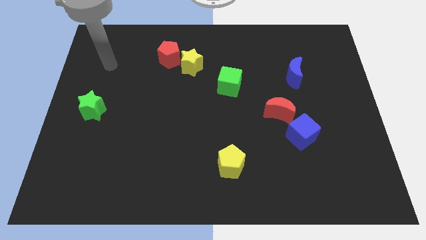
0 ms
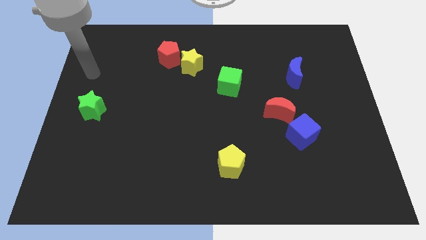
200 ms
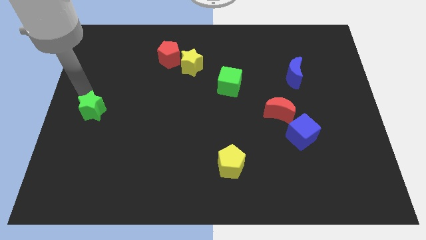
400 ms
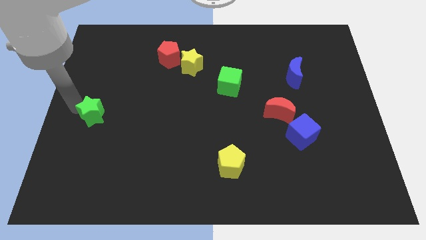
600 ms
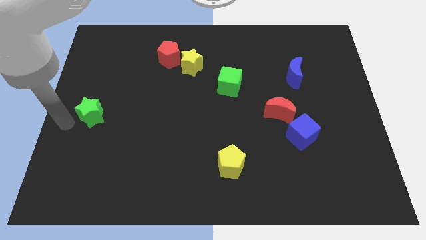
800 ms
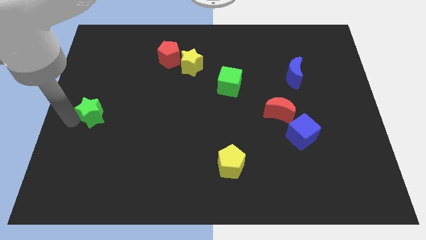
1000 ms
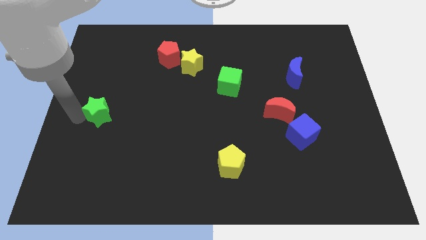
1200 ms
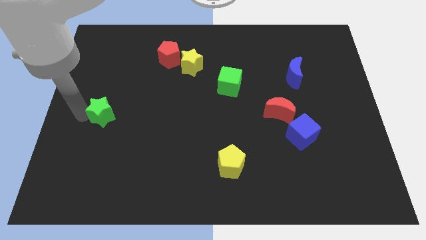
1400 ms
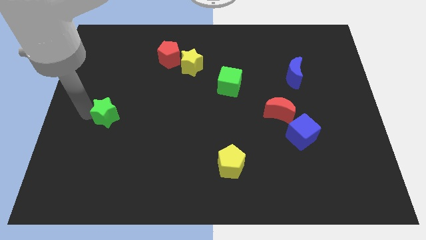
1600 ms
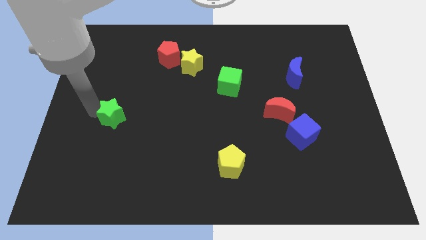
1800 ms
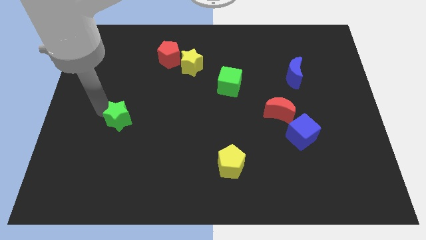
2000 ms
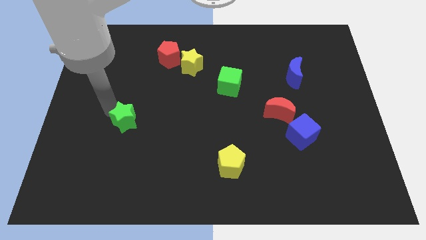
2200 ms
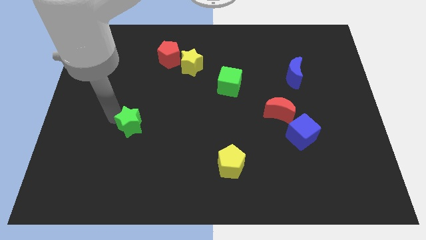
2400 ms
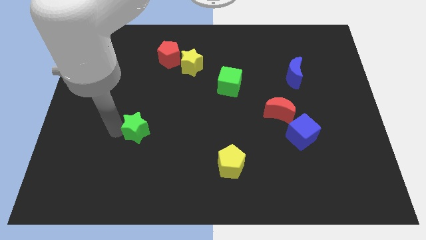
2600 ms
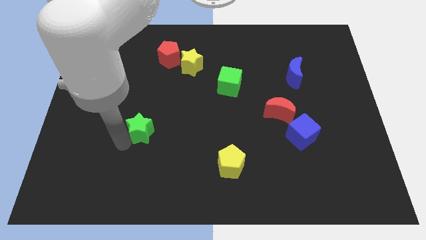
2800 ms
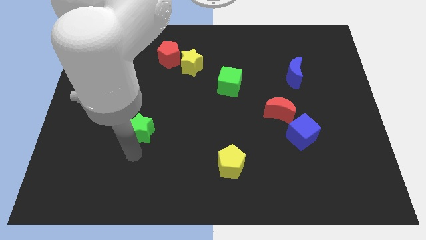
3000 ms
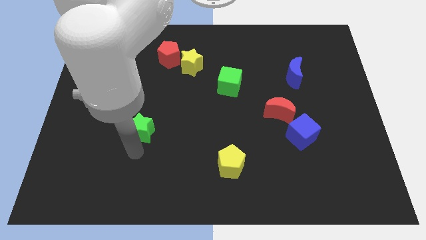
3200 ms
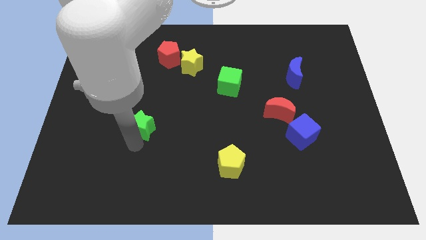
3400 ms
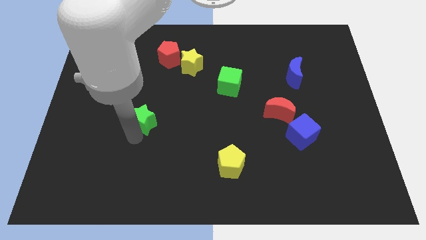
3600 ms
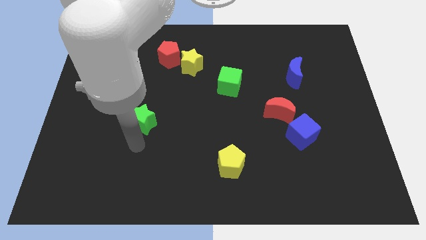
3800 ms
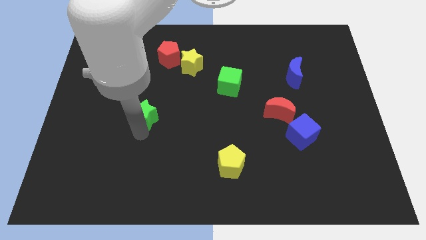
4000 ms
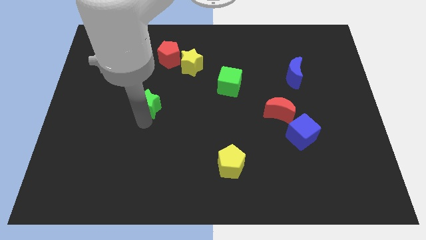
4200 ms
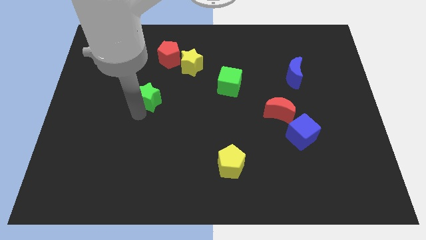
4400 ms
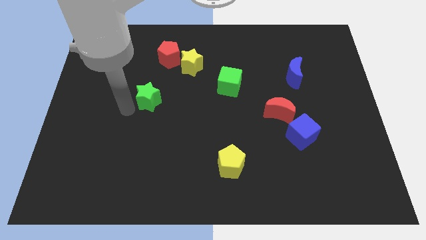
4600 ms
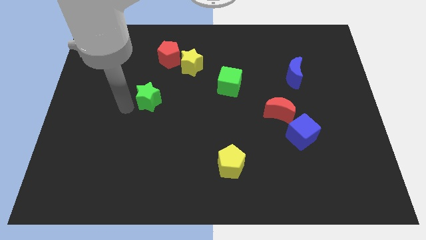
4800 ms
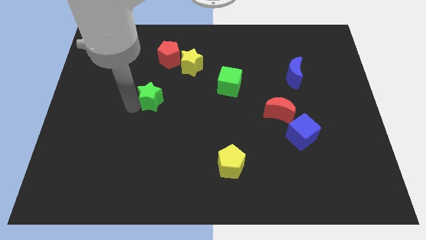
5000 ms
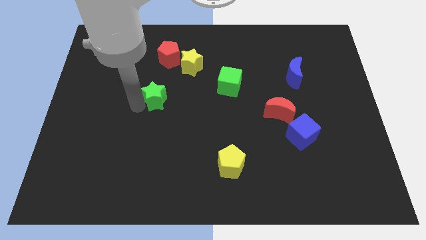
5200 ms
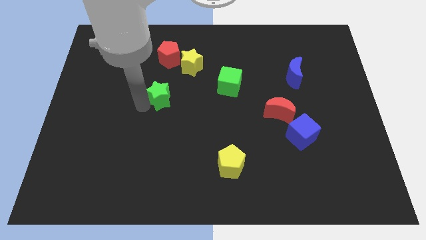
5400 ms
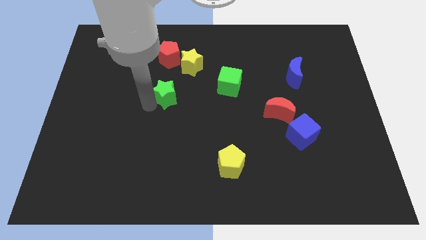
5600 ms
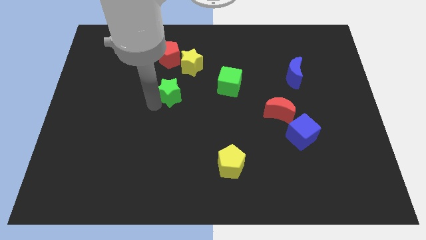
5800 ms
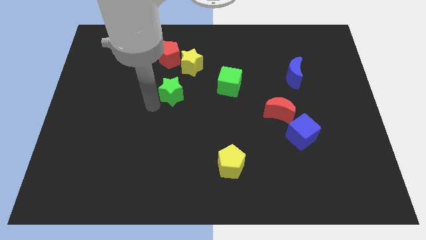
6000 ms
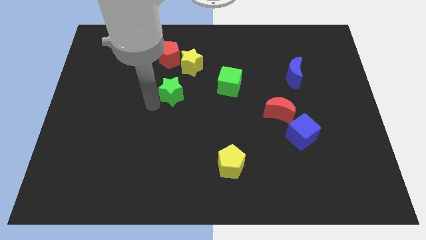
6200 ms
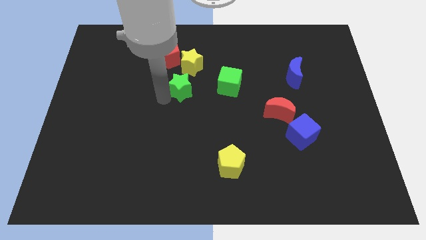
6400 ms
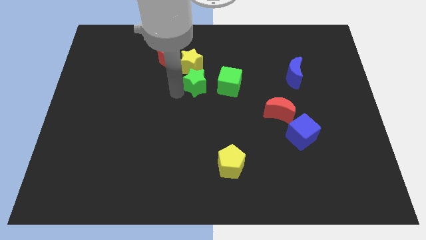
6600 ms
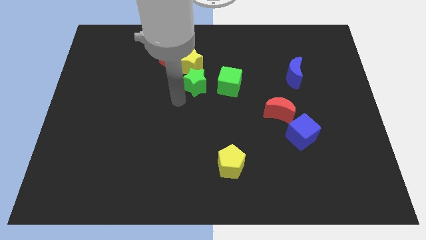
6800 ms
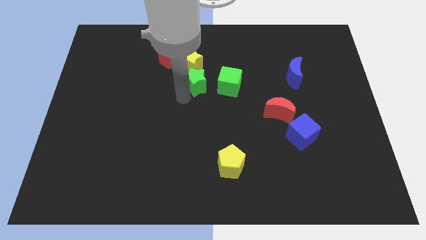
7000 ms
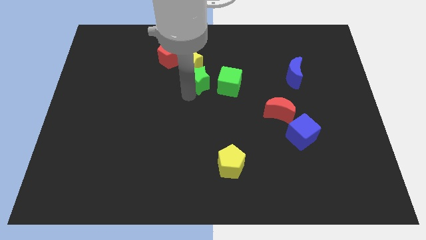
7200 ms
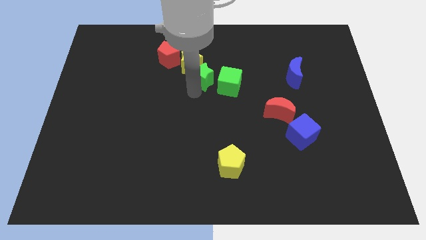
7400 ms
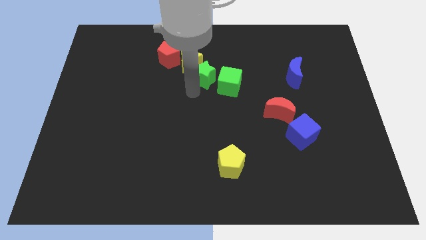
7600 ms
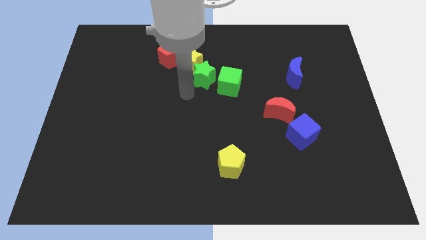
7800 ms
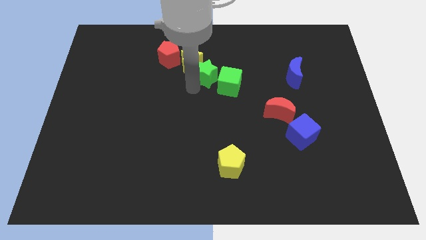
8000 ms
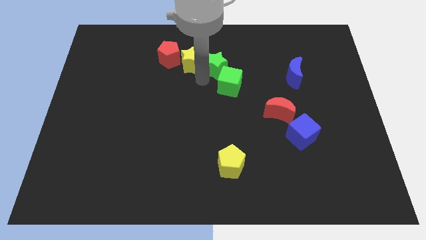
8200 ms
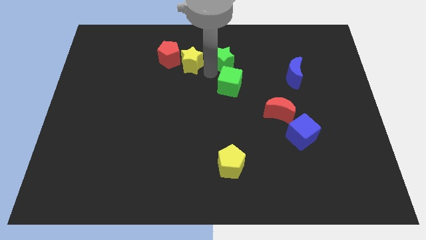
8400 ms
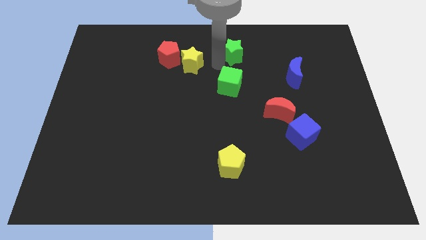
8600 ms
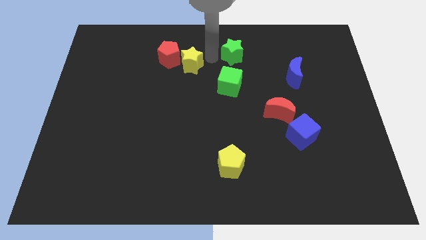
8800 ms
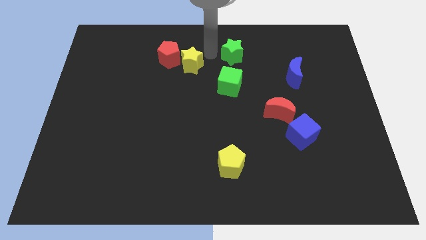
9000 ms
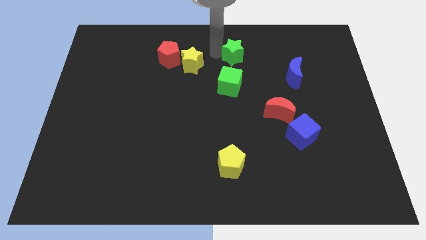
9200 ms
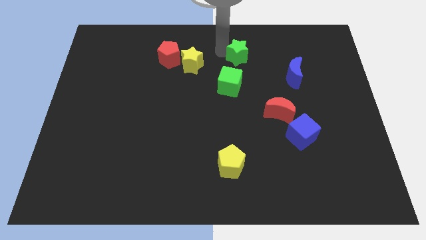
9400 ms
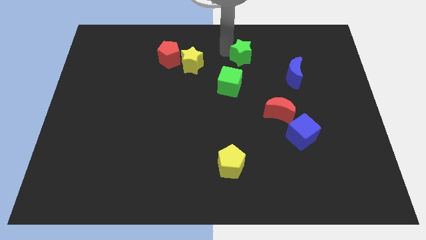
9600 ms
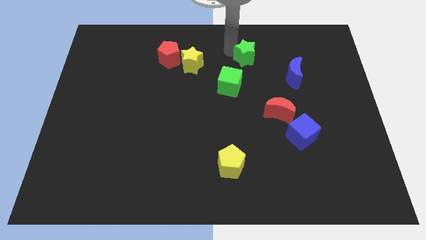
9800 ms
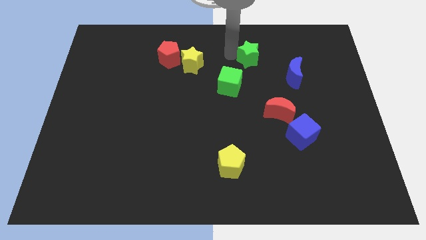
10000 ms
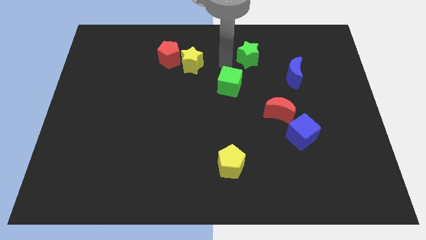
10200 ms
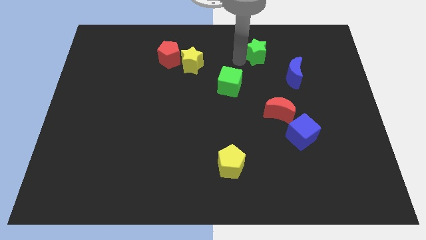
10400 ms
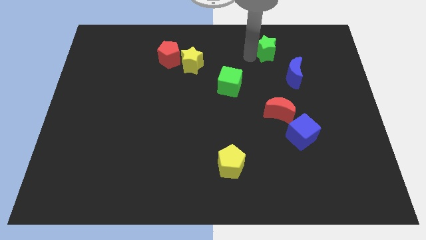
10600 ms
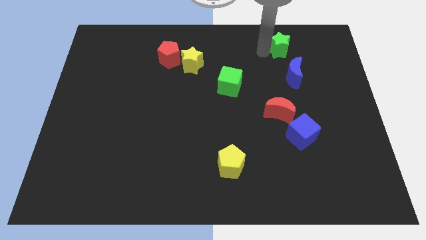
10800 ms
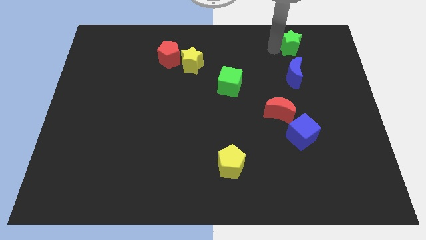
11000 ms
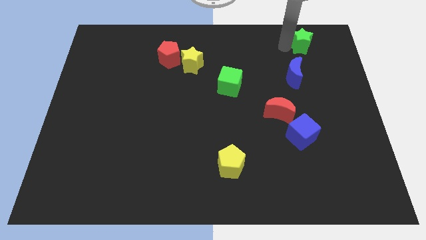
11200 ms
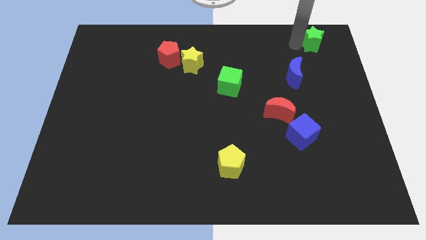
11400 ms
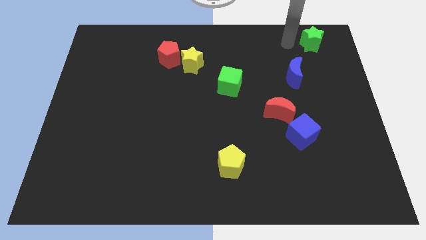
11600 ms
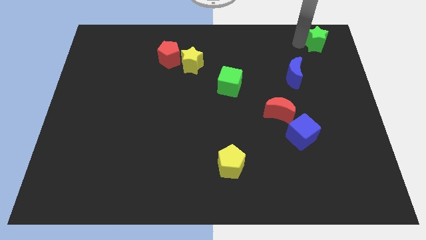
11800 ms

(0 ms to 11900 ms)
move the green star to the top right of the board

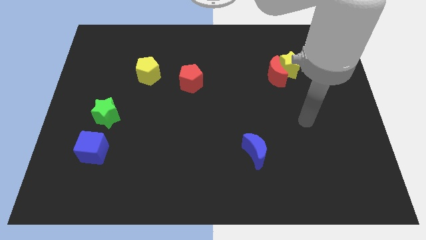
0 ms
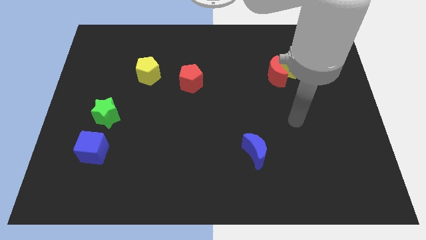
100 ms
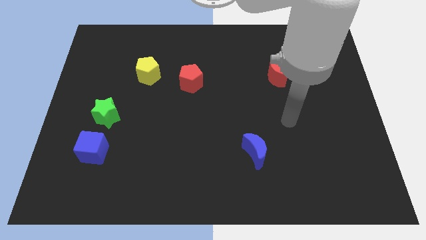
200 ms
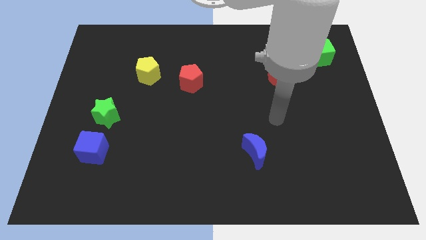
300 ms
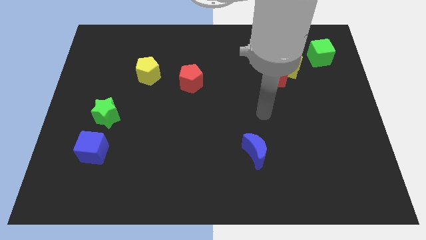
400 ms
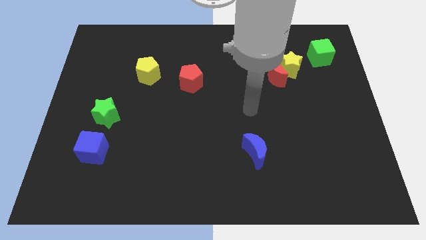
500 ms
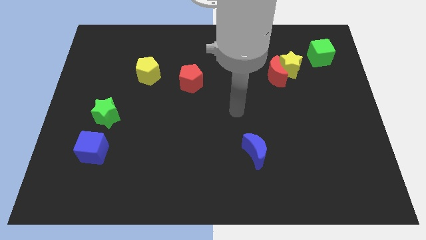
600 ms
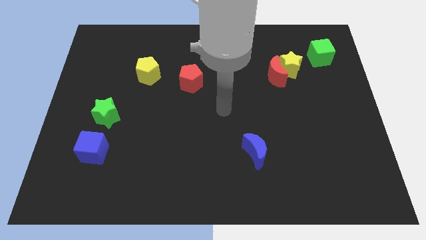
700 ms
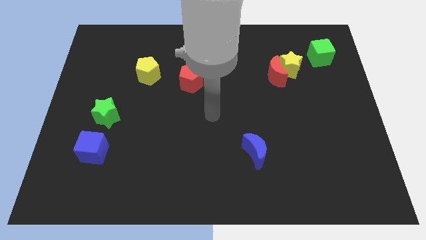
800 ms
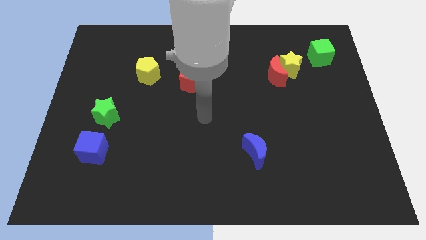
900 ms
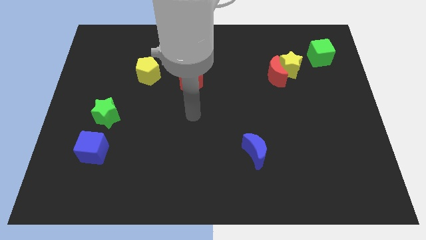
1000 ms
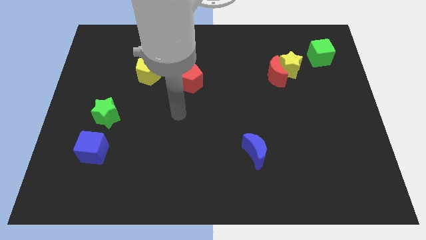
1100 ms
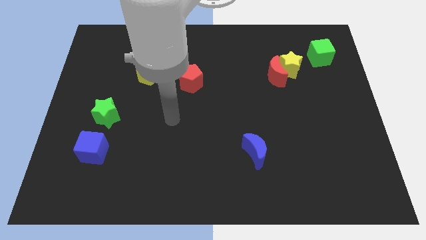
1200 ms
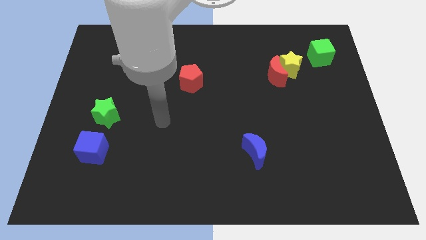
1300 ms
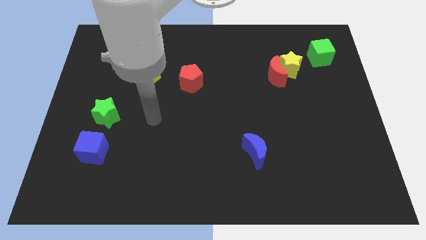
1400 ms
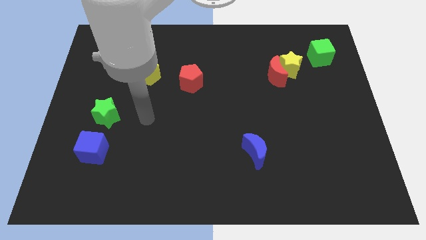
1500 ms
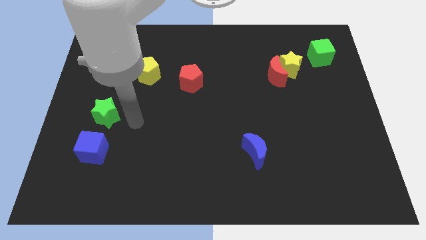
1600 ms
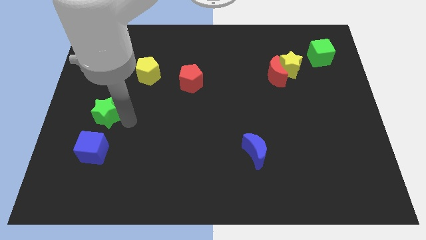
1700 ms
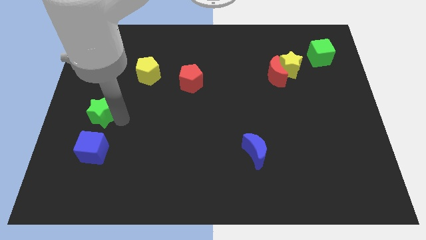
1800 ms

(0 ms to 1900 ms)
push the green star to the center left
